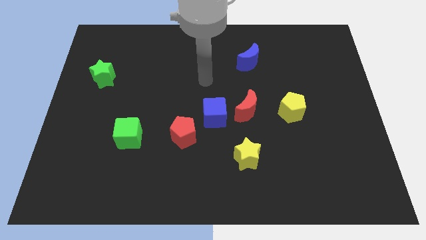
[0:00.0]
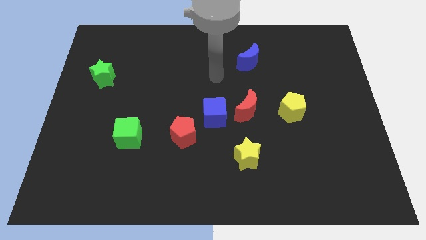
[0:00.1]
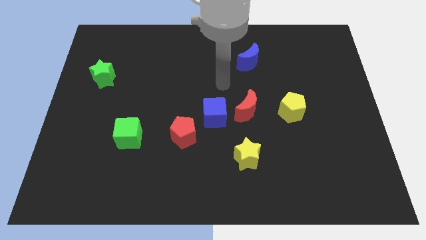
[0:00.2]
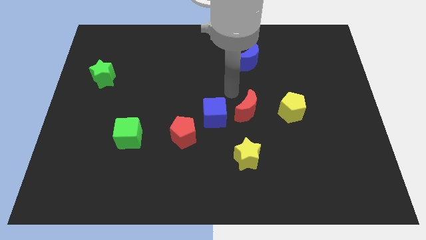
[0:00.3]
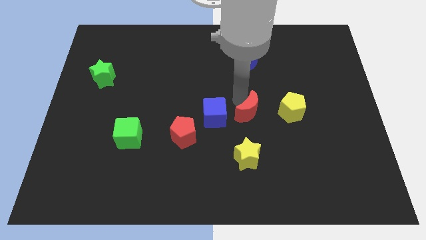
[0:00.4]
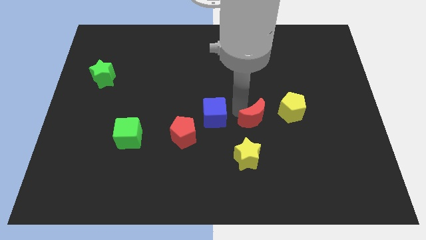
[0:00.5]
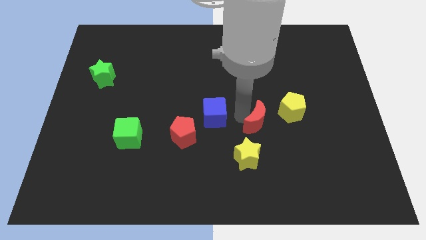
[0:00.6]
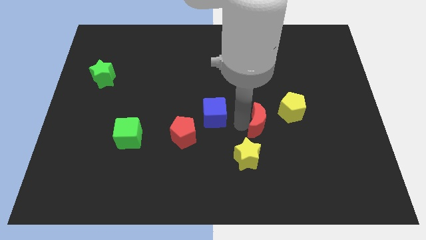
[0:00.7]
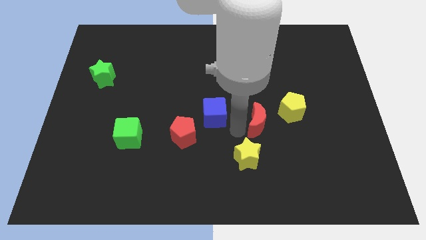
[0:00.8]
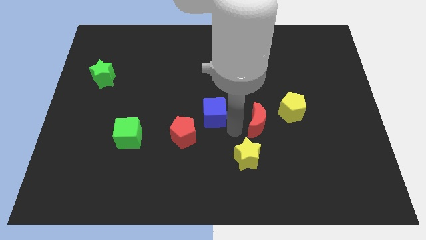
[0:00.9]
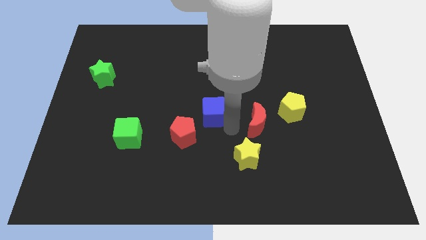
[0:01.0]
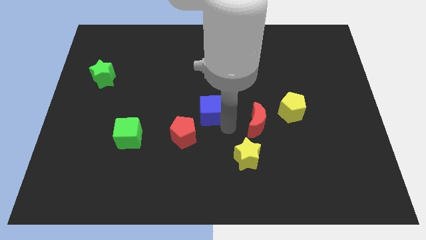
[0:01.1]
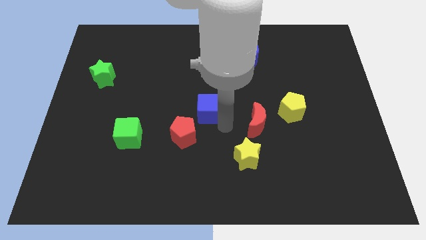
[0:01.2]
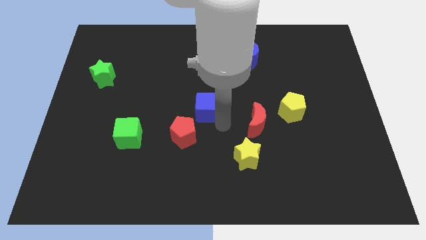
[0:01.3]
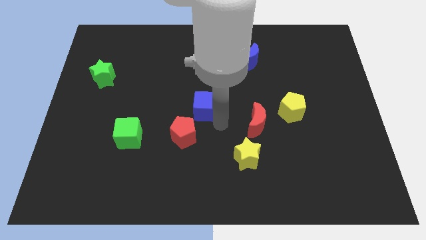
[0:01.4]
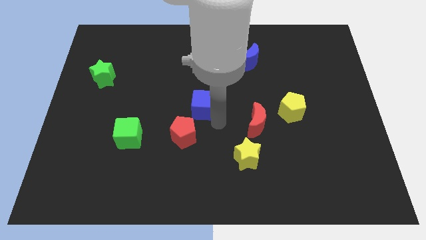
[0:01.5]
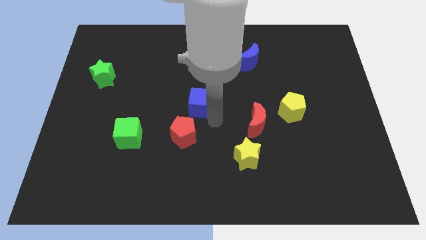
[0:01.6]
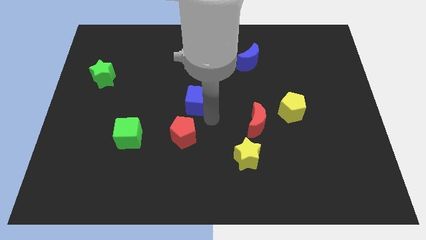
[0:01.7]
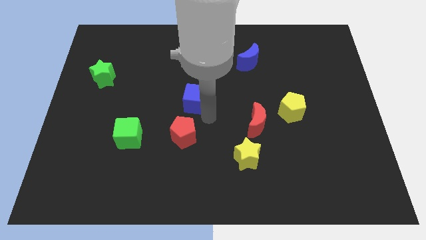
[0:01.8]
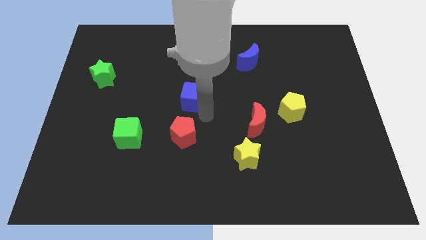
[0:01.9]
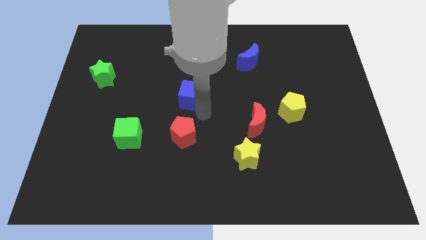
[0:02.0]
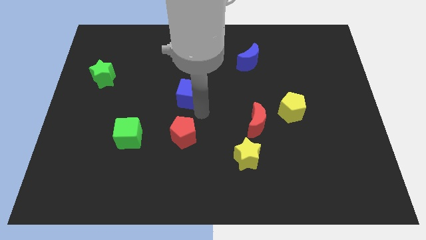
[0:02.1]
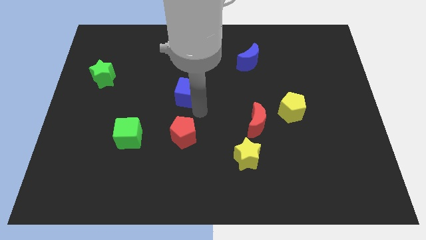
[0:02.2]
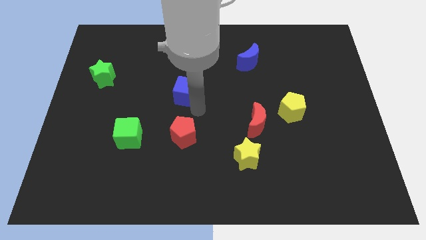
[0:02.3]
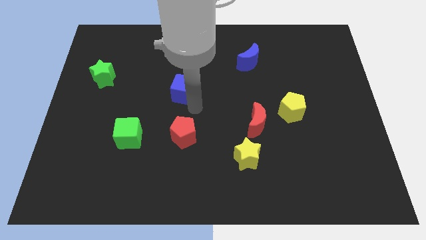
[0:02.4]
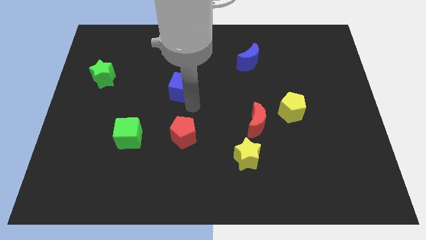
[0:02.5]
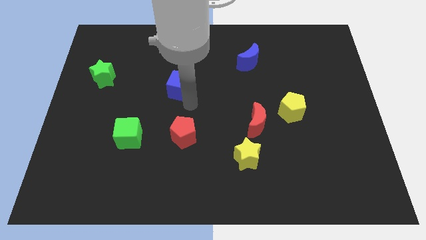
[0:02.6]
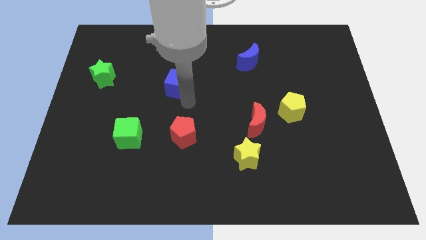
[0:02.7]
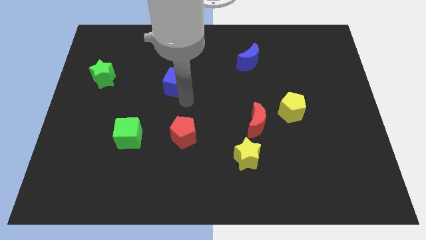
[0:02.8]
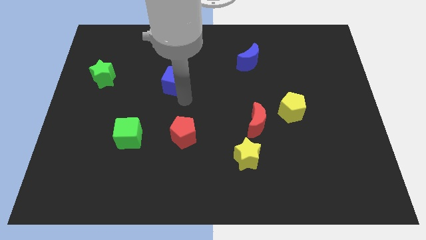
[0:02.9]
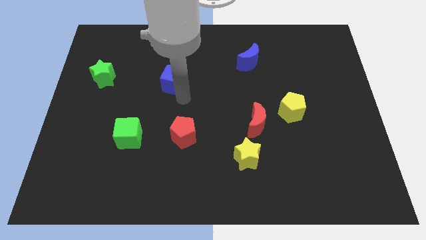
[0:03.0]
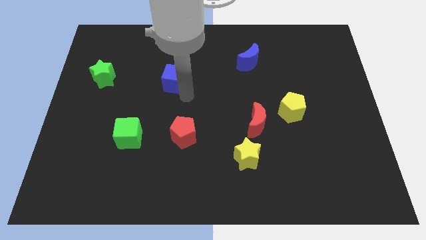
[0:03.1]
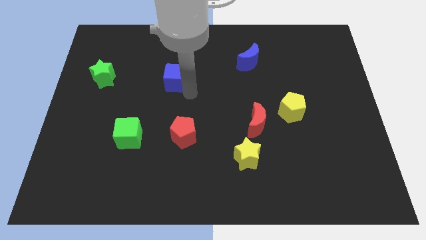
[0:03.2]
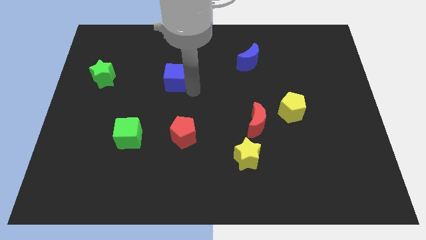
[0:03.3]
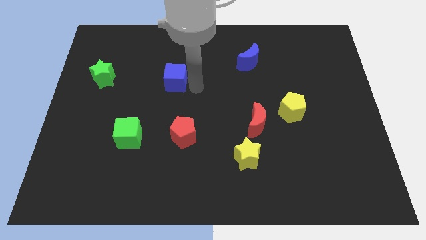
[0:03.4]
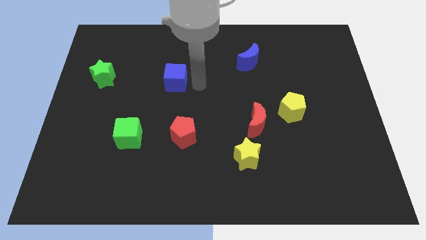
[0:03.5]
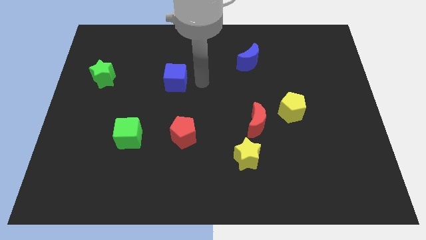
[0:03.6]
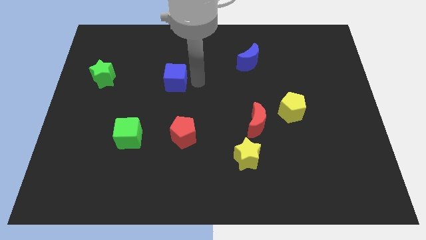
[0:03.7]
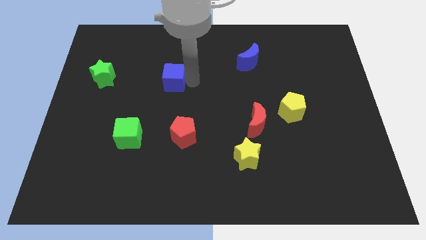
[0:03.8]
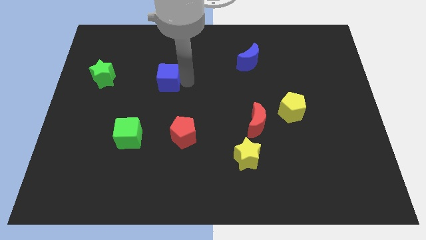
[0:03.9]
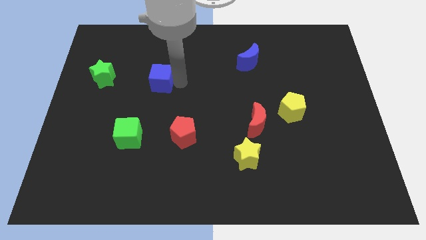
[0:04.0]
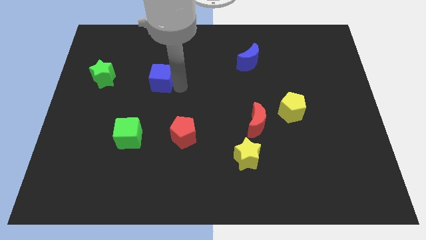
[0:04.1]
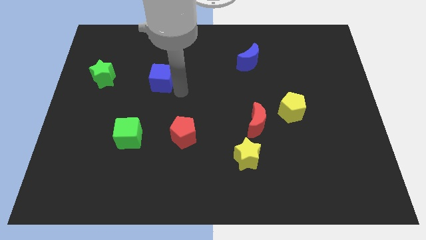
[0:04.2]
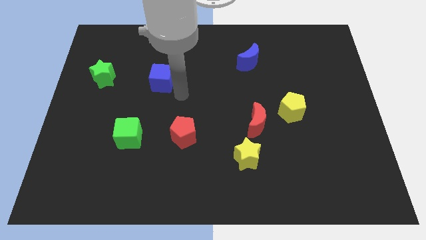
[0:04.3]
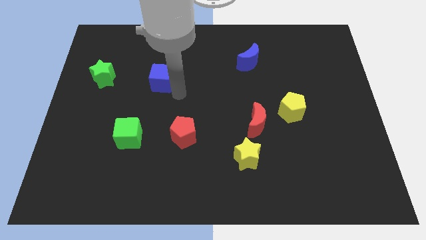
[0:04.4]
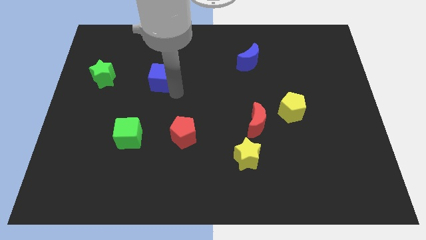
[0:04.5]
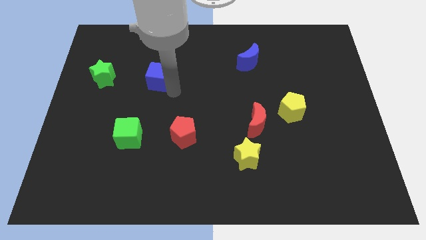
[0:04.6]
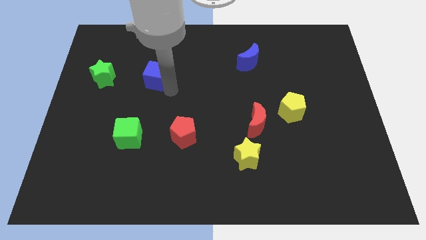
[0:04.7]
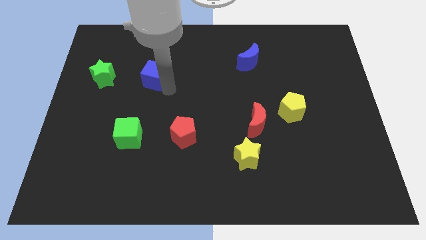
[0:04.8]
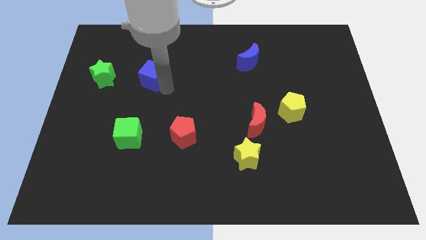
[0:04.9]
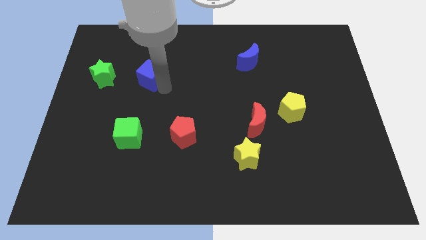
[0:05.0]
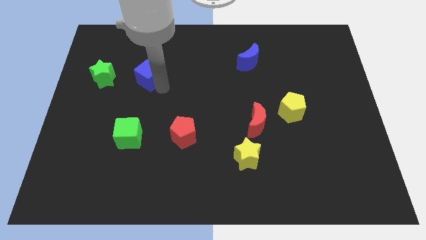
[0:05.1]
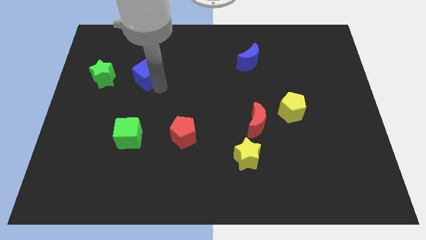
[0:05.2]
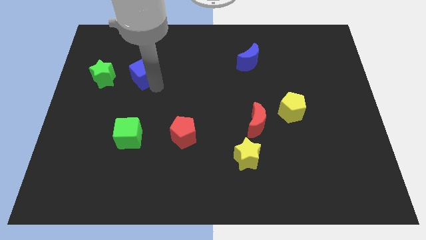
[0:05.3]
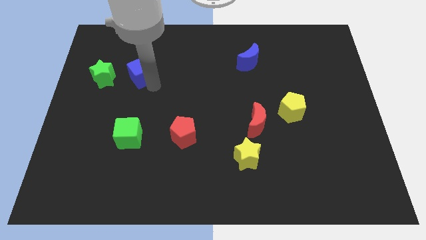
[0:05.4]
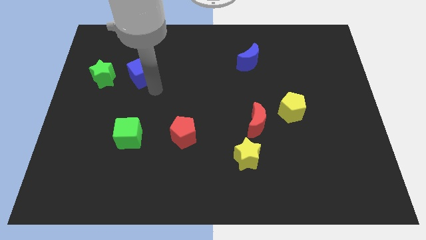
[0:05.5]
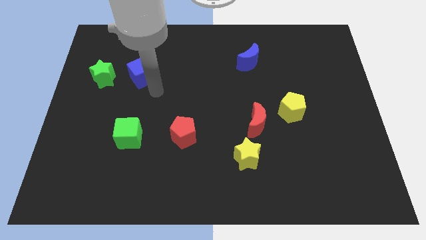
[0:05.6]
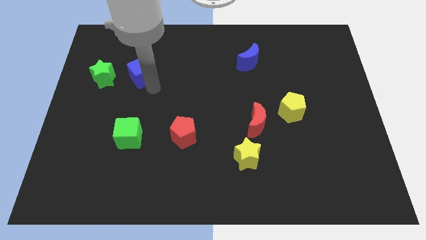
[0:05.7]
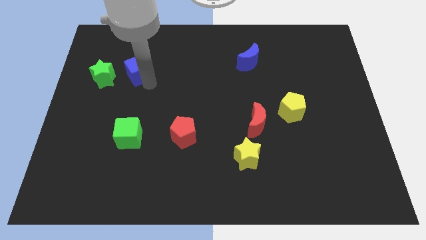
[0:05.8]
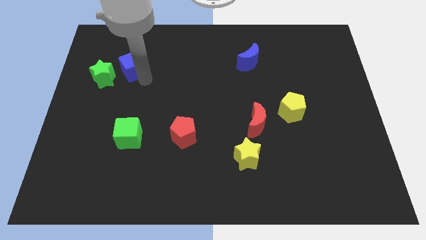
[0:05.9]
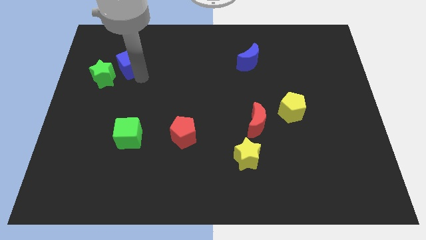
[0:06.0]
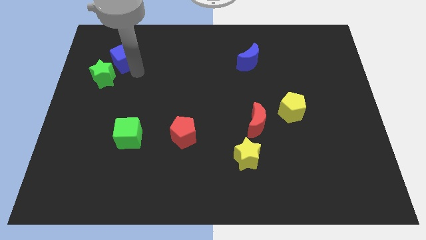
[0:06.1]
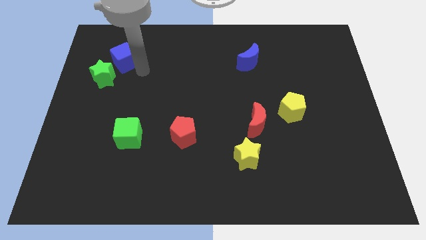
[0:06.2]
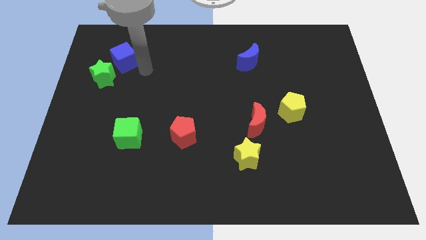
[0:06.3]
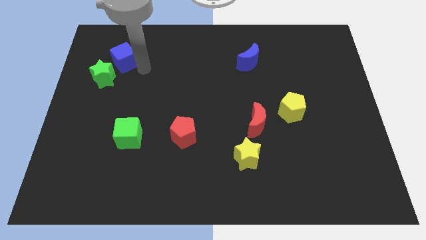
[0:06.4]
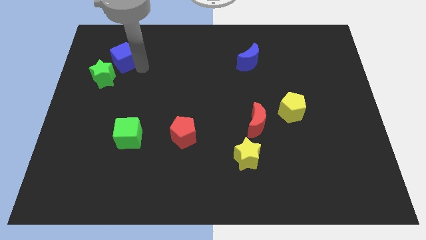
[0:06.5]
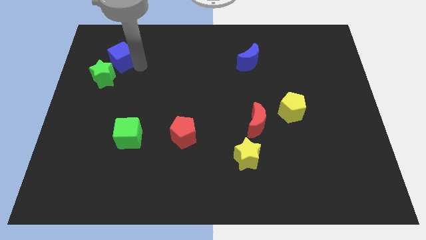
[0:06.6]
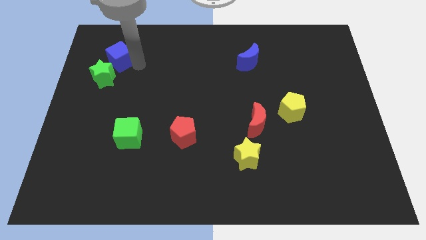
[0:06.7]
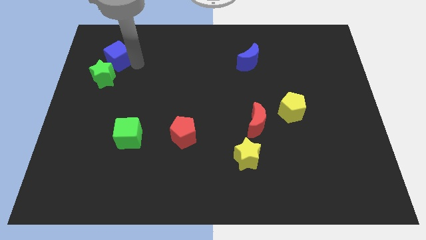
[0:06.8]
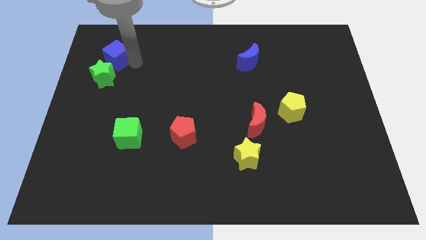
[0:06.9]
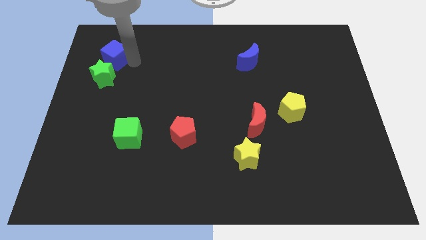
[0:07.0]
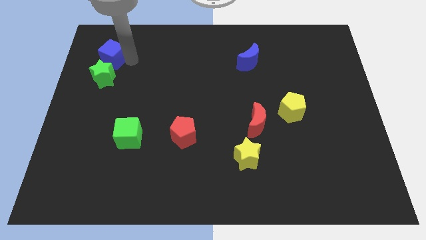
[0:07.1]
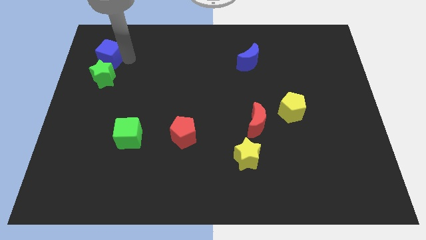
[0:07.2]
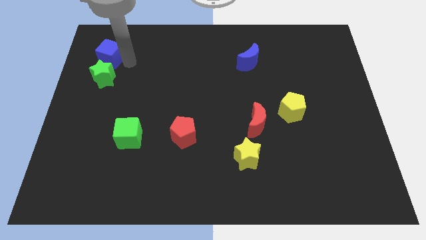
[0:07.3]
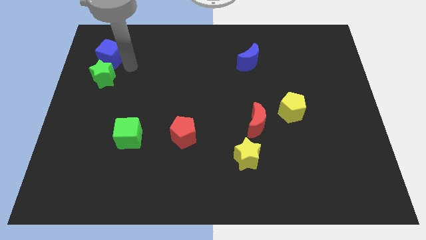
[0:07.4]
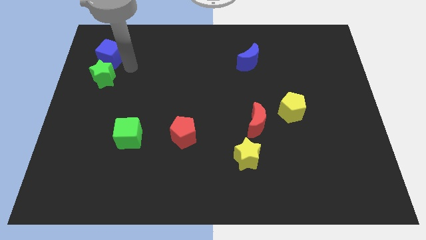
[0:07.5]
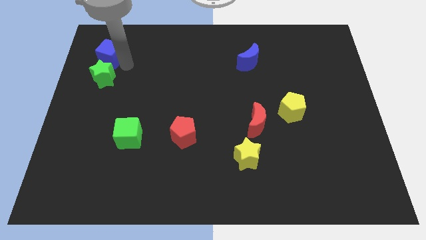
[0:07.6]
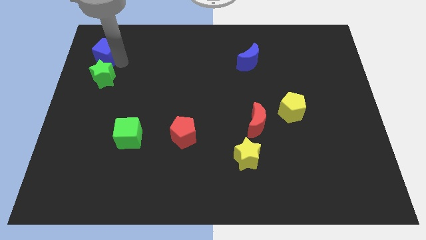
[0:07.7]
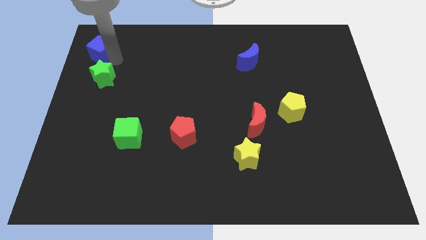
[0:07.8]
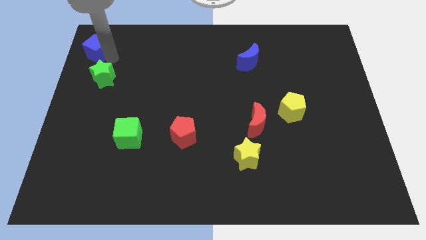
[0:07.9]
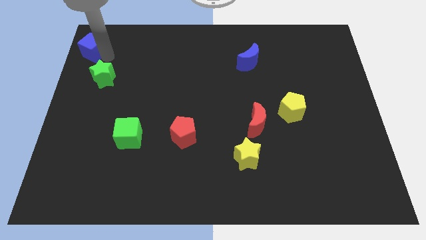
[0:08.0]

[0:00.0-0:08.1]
put the blue cube to the top left corner
